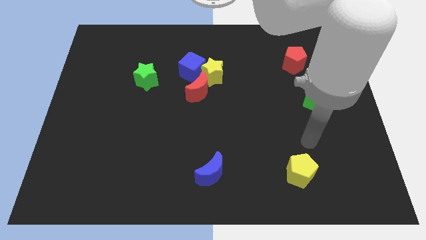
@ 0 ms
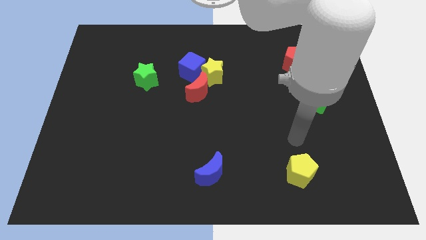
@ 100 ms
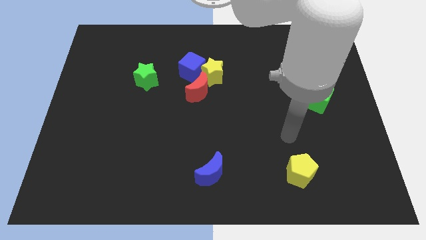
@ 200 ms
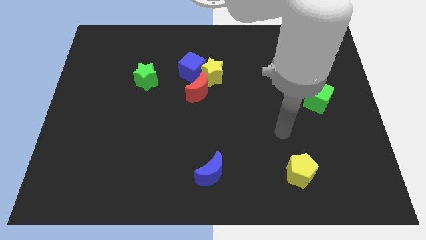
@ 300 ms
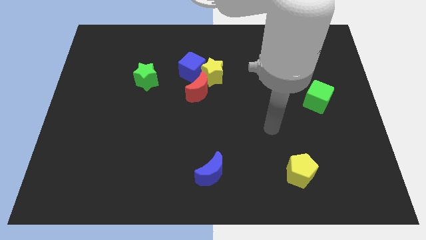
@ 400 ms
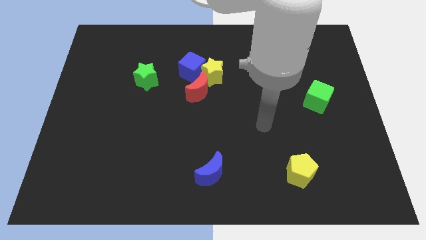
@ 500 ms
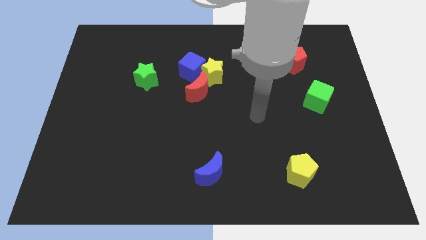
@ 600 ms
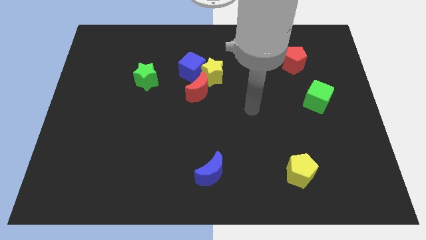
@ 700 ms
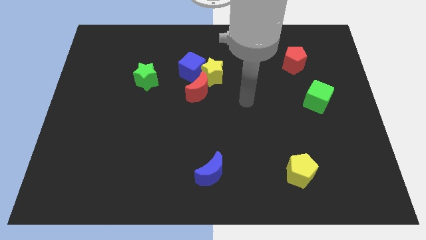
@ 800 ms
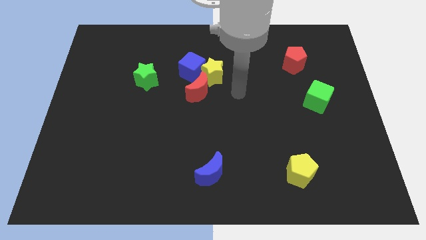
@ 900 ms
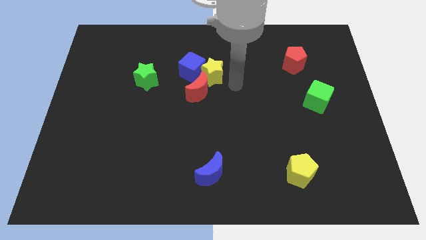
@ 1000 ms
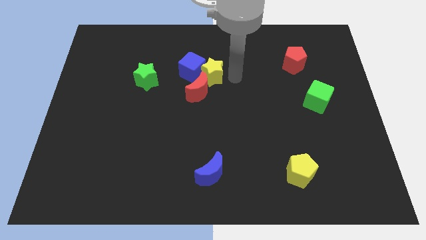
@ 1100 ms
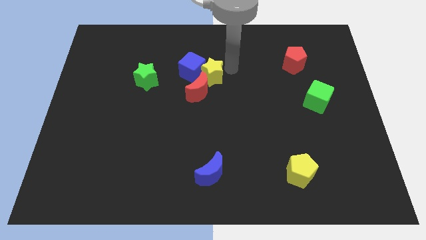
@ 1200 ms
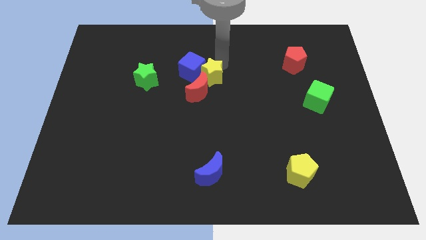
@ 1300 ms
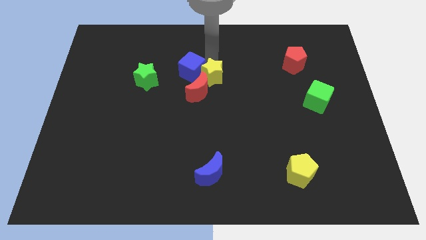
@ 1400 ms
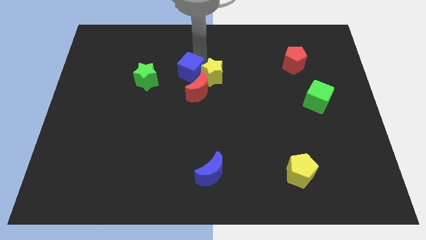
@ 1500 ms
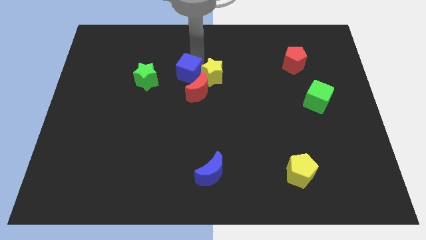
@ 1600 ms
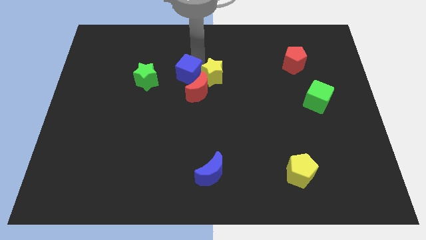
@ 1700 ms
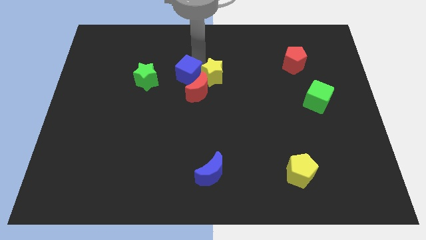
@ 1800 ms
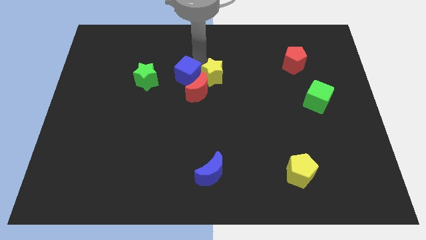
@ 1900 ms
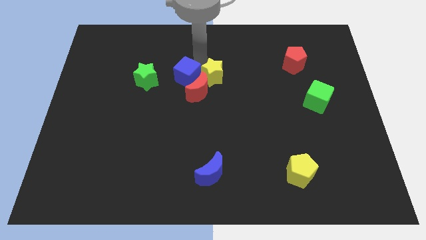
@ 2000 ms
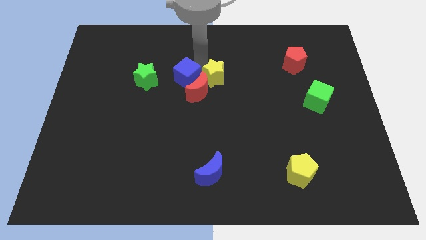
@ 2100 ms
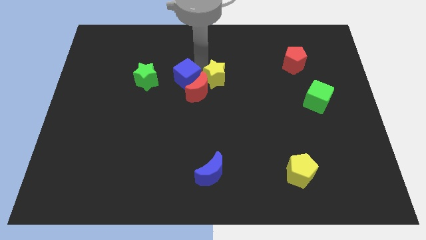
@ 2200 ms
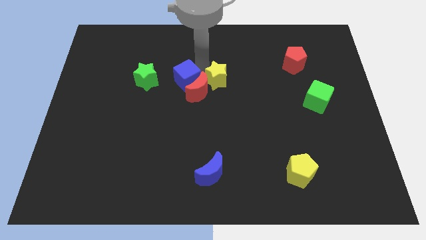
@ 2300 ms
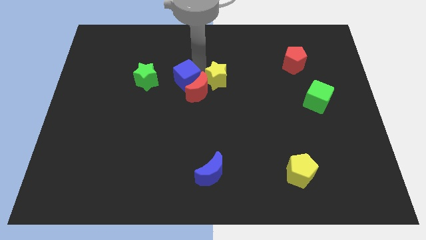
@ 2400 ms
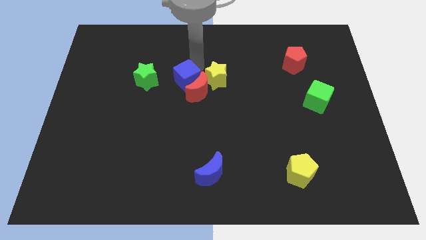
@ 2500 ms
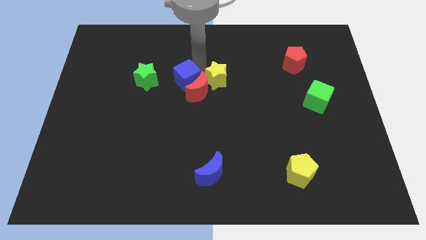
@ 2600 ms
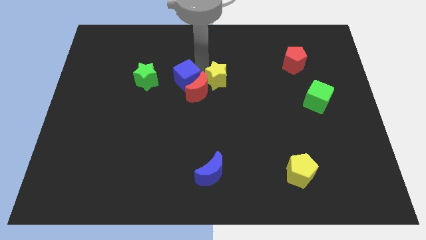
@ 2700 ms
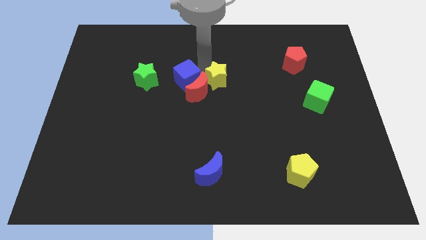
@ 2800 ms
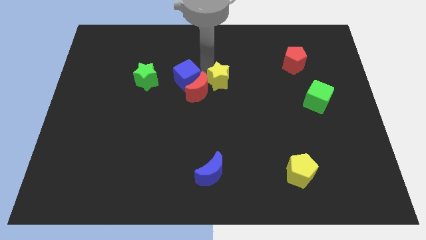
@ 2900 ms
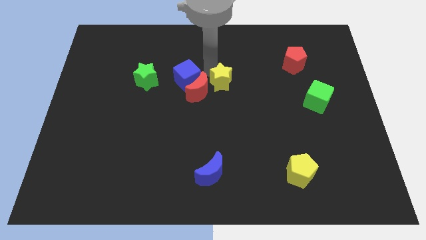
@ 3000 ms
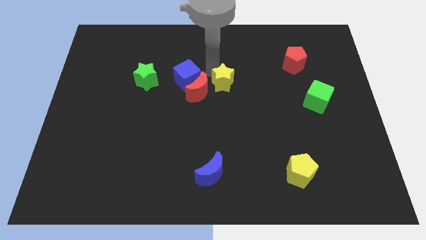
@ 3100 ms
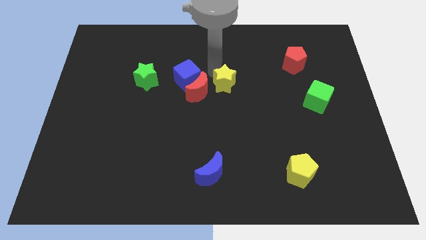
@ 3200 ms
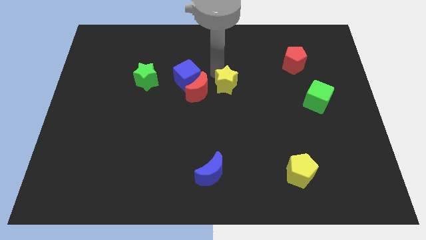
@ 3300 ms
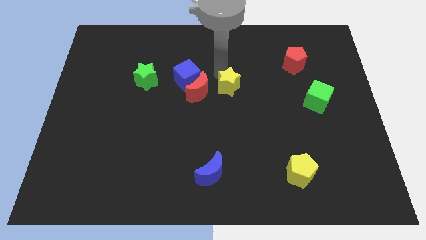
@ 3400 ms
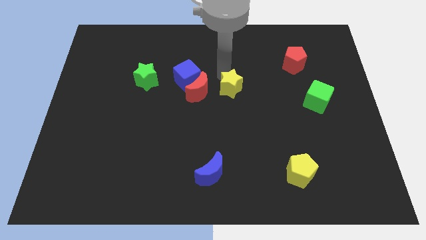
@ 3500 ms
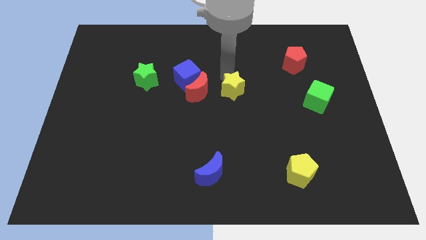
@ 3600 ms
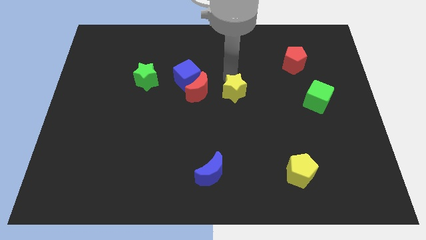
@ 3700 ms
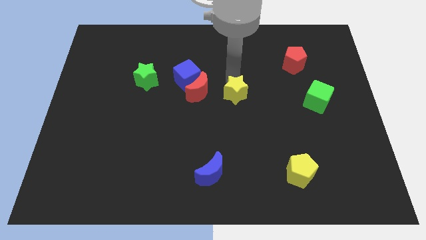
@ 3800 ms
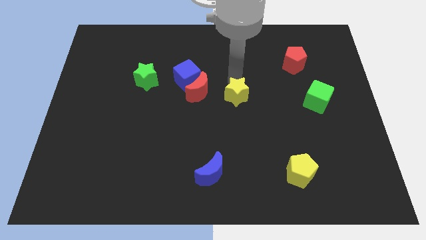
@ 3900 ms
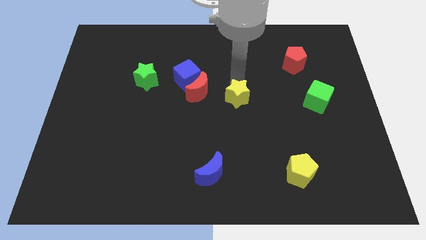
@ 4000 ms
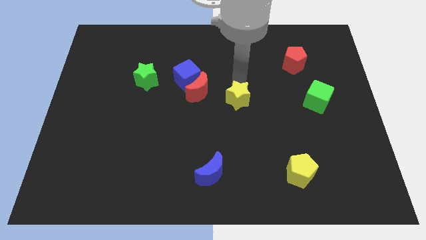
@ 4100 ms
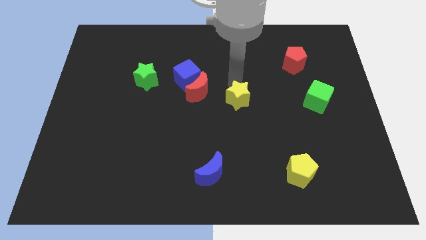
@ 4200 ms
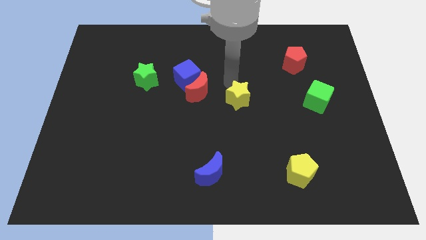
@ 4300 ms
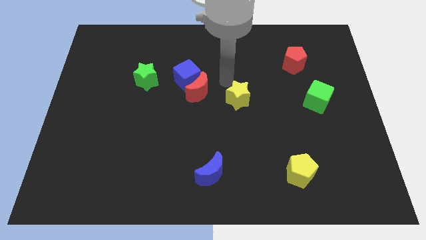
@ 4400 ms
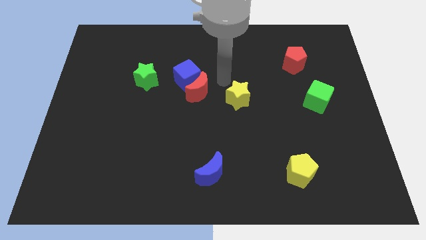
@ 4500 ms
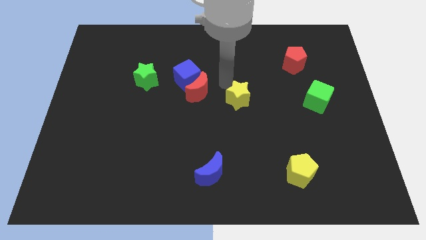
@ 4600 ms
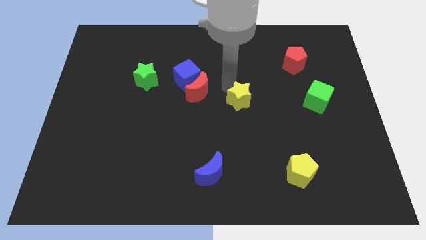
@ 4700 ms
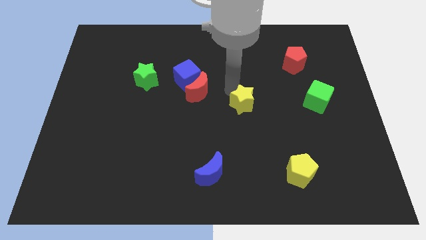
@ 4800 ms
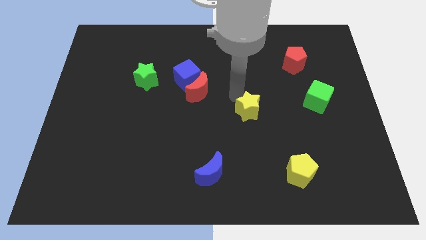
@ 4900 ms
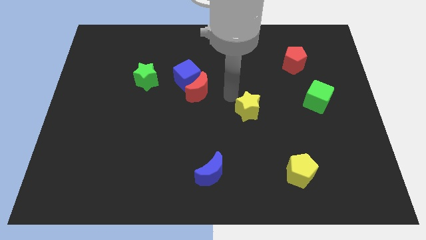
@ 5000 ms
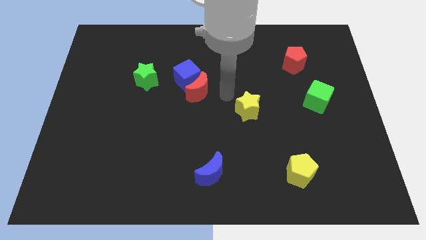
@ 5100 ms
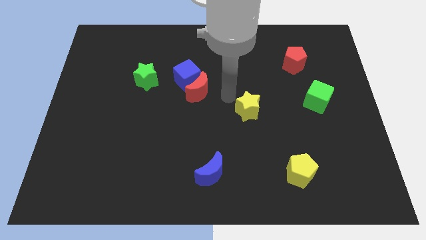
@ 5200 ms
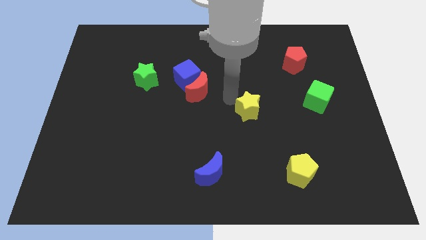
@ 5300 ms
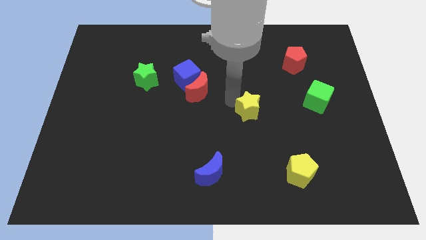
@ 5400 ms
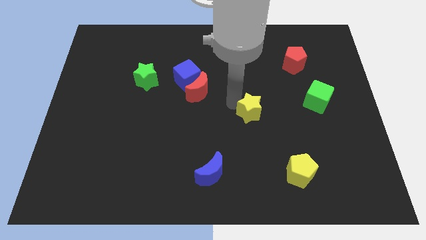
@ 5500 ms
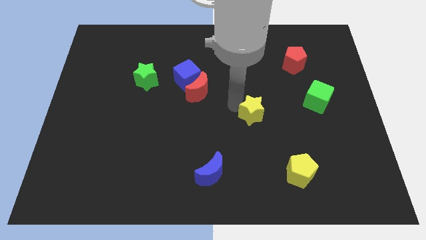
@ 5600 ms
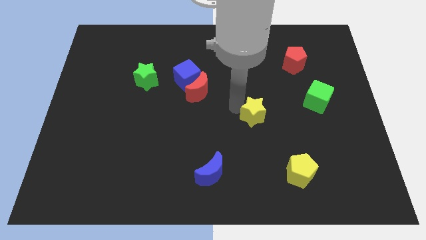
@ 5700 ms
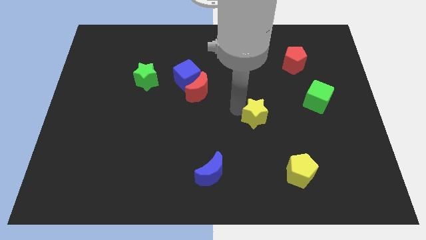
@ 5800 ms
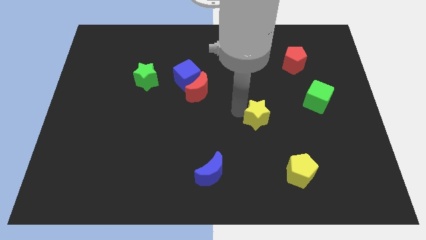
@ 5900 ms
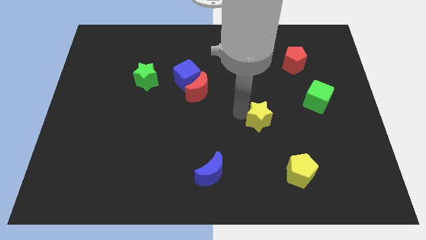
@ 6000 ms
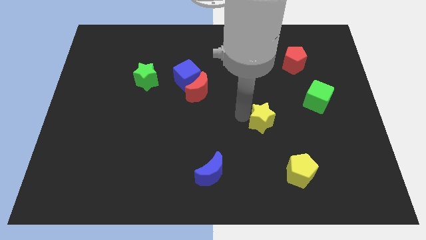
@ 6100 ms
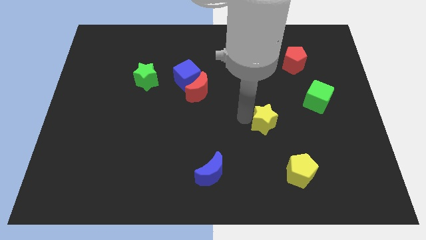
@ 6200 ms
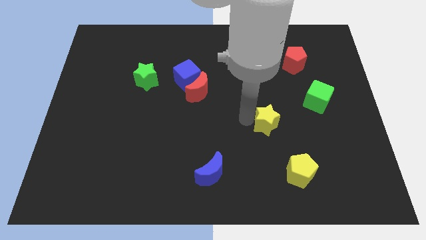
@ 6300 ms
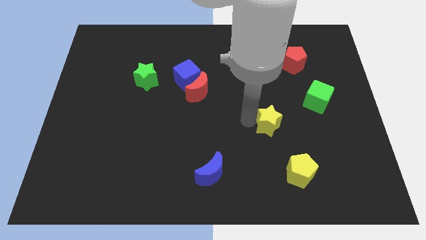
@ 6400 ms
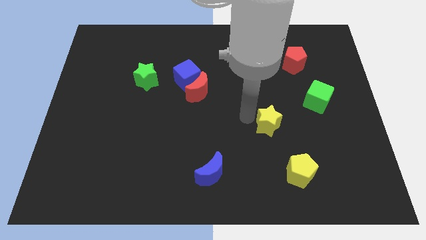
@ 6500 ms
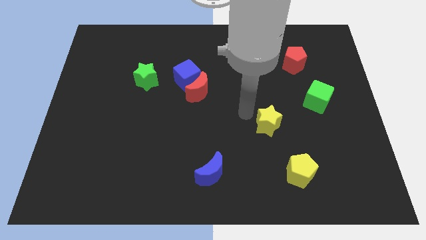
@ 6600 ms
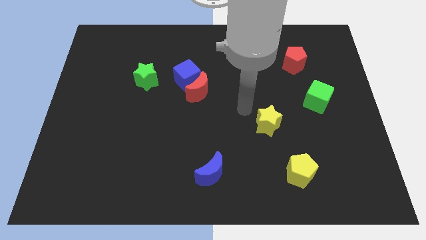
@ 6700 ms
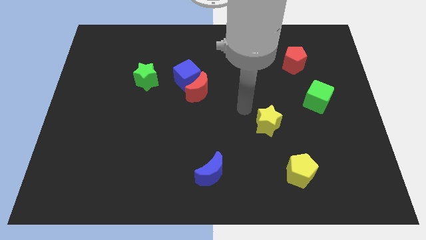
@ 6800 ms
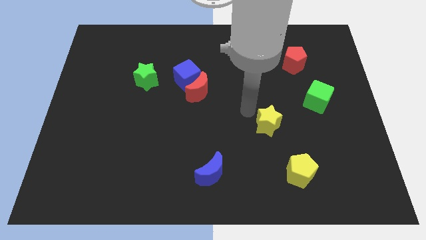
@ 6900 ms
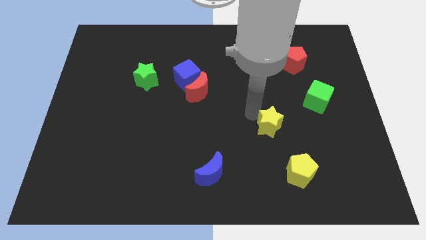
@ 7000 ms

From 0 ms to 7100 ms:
push the yellow star diagonally downwards and right

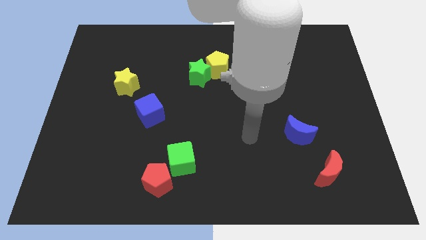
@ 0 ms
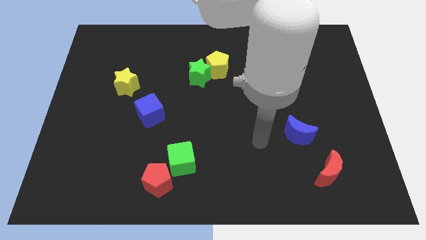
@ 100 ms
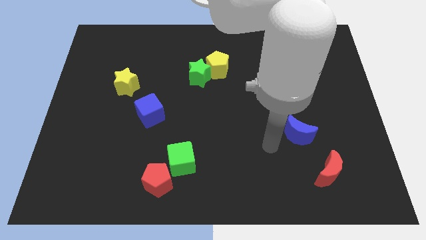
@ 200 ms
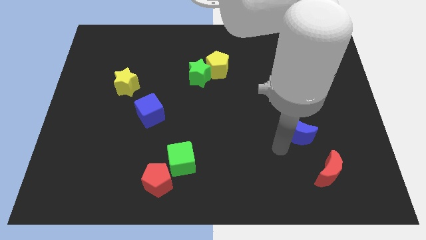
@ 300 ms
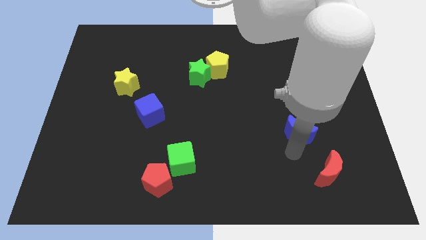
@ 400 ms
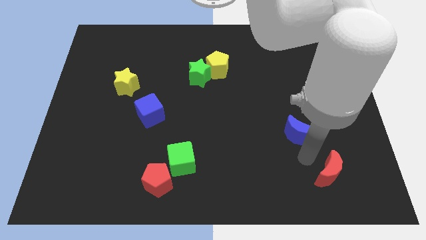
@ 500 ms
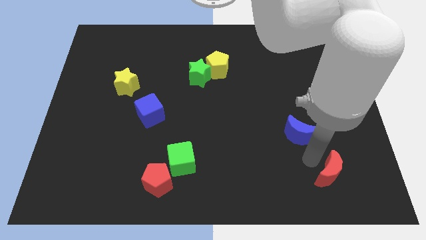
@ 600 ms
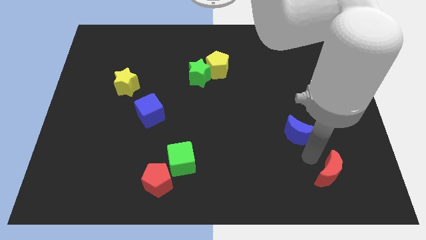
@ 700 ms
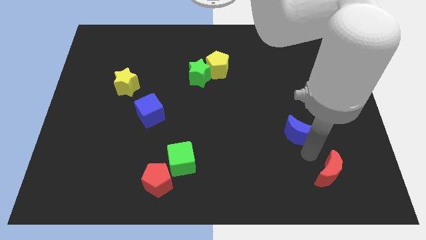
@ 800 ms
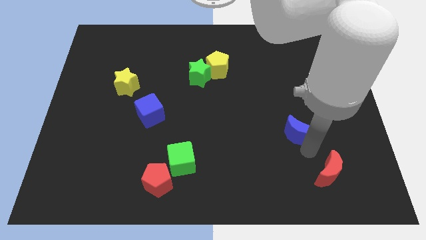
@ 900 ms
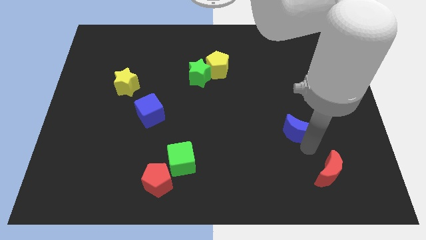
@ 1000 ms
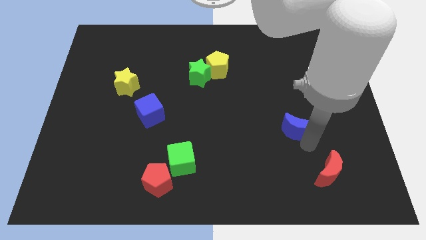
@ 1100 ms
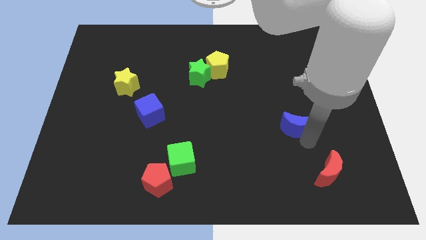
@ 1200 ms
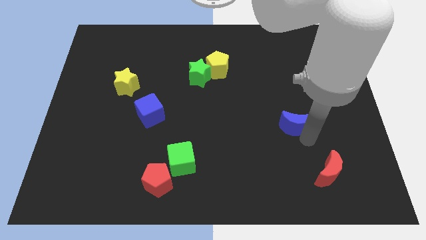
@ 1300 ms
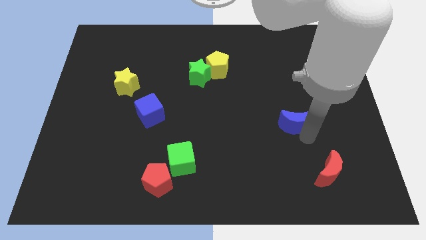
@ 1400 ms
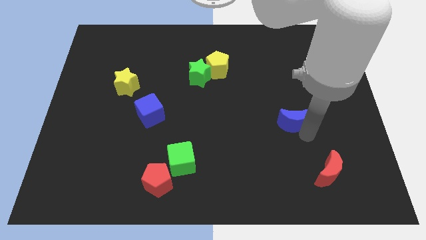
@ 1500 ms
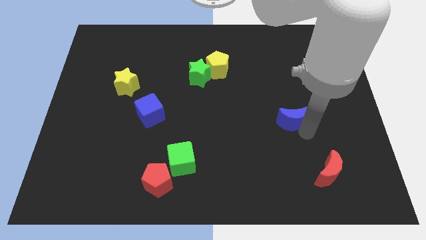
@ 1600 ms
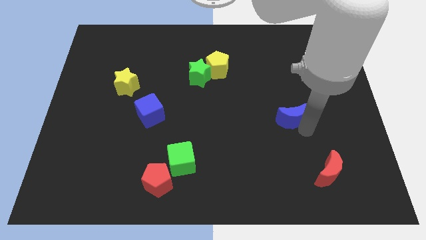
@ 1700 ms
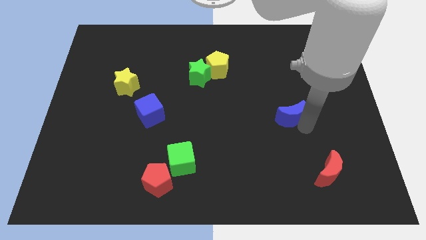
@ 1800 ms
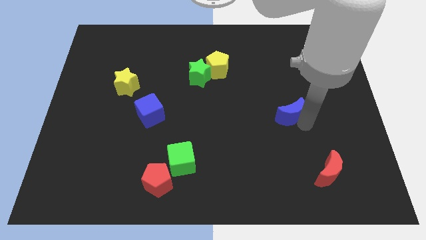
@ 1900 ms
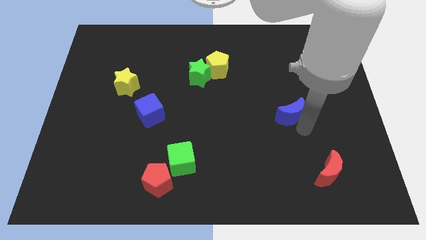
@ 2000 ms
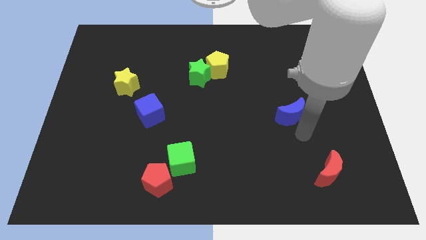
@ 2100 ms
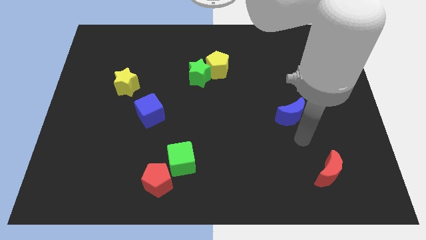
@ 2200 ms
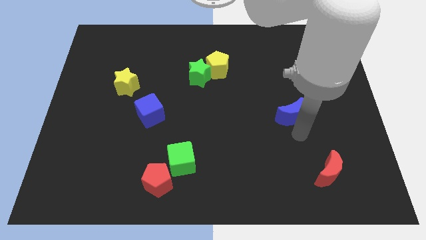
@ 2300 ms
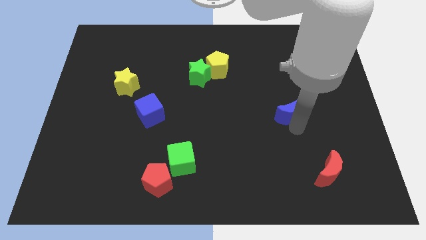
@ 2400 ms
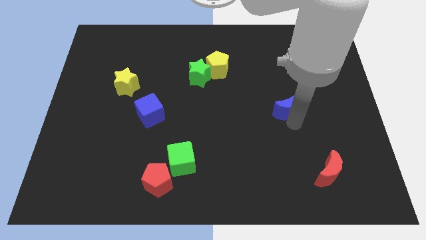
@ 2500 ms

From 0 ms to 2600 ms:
slightly move the blue moon upwards
